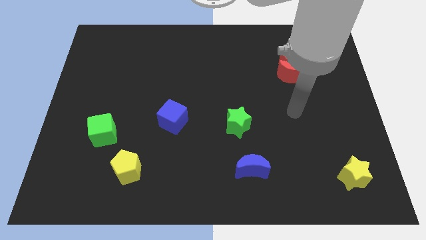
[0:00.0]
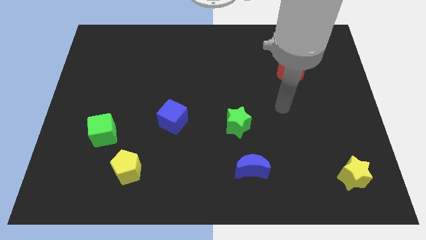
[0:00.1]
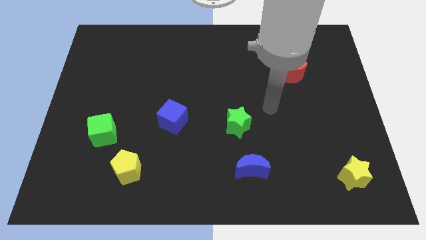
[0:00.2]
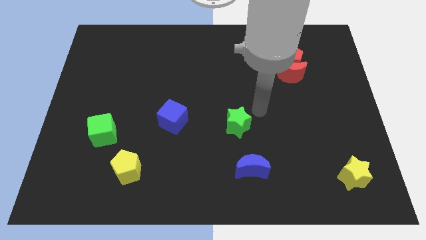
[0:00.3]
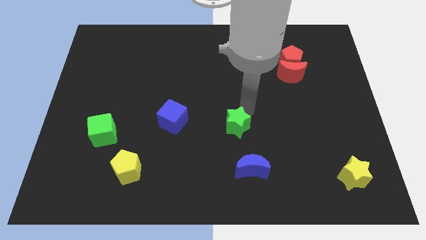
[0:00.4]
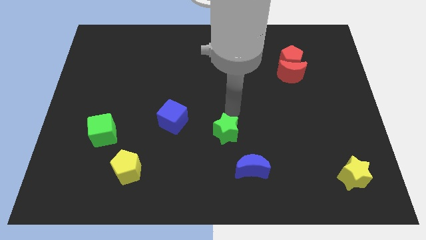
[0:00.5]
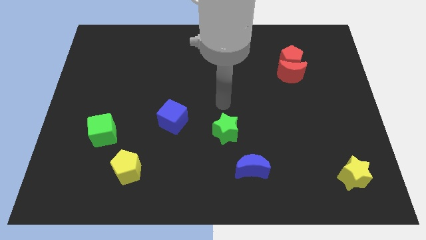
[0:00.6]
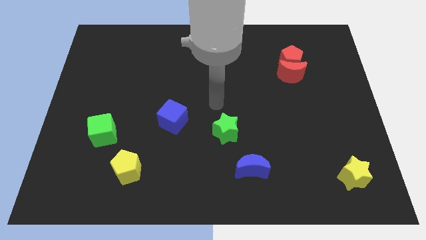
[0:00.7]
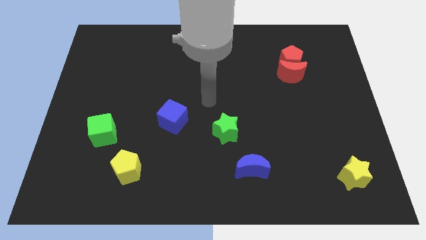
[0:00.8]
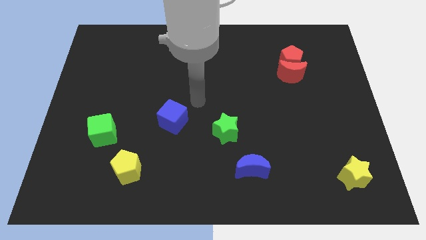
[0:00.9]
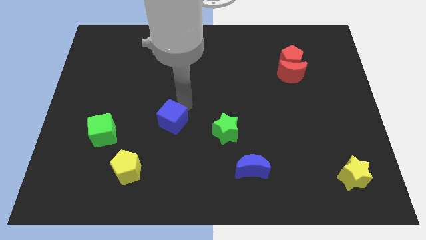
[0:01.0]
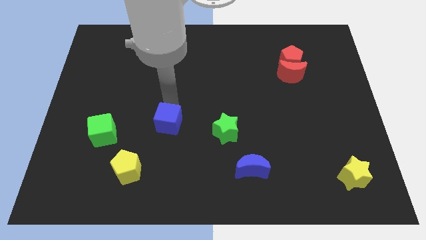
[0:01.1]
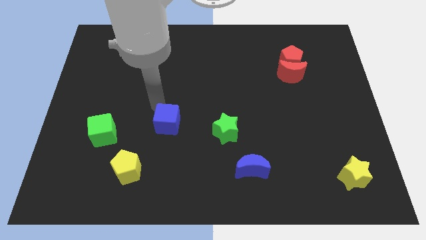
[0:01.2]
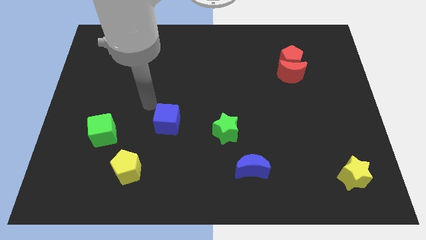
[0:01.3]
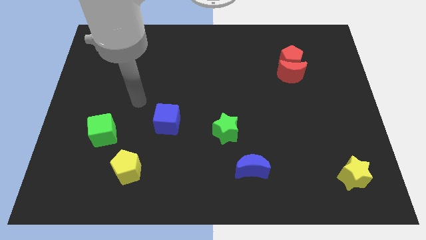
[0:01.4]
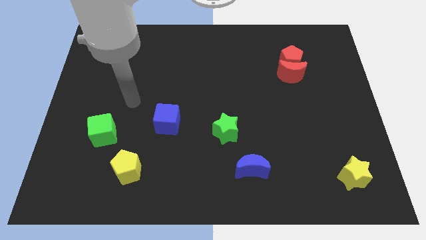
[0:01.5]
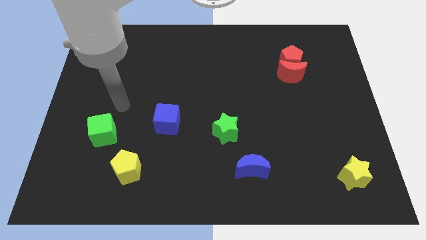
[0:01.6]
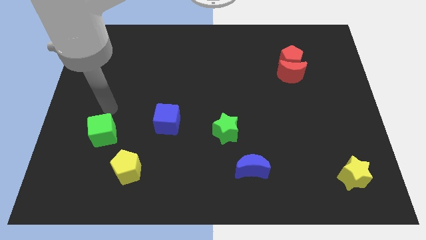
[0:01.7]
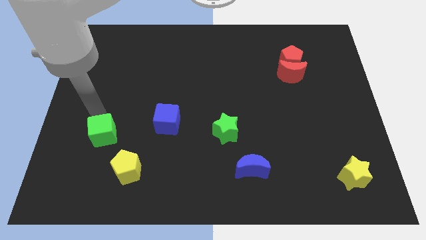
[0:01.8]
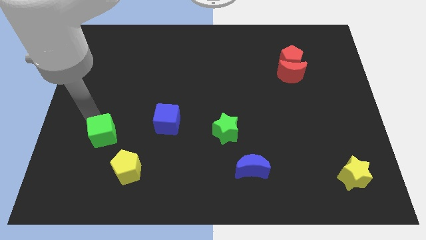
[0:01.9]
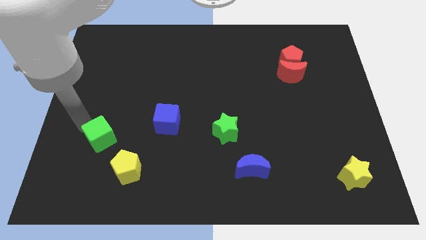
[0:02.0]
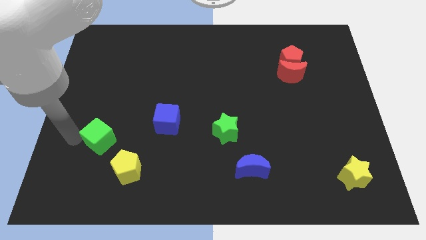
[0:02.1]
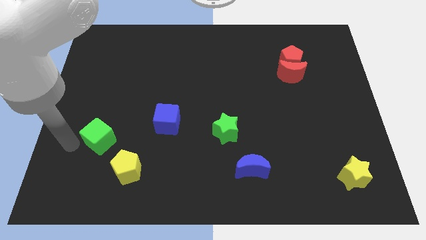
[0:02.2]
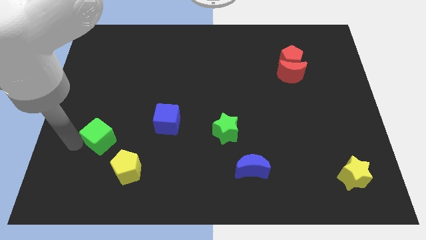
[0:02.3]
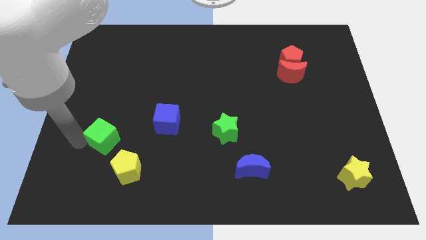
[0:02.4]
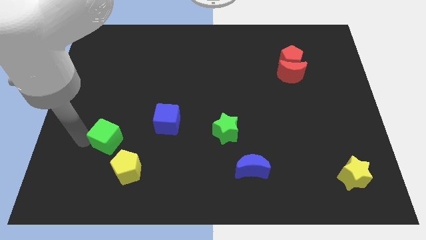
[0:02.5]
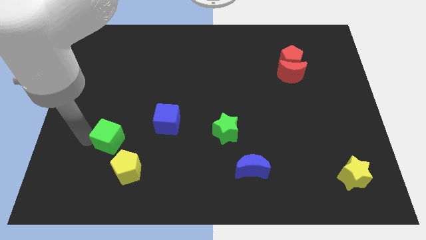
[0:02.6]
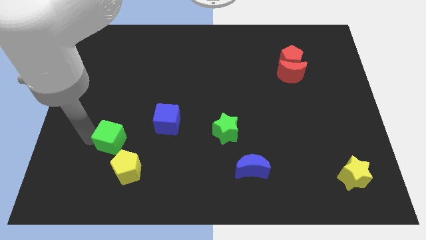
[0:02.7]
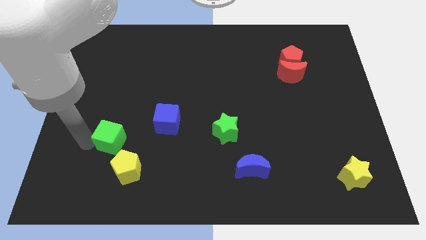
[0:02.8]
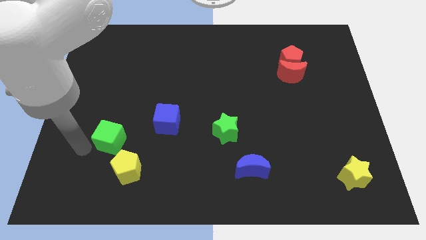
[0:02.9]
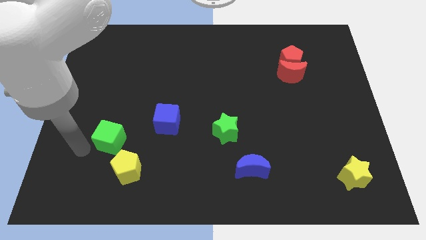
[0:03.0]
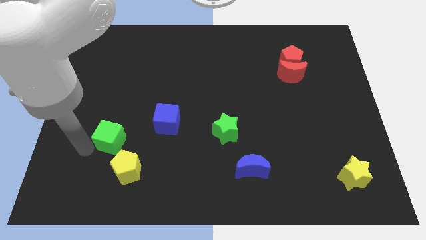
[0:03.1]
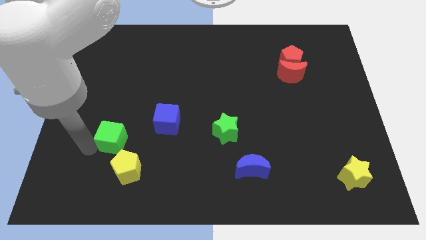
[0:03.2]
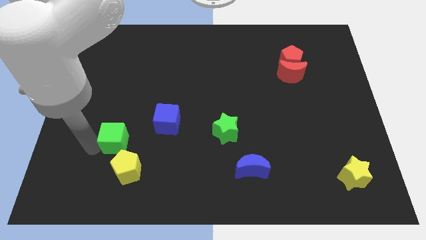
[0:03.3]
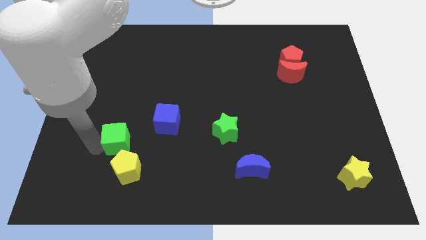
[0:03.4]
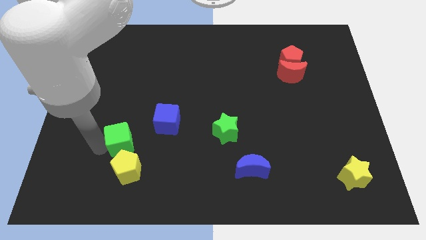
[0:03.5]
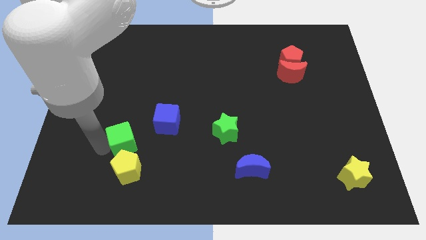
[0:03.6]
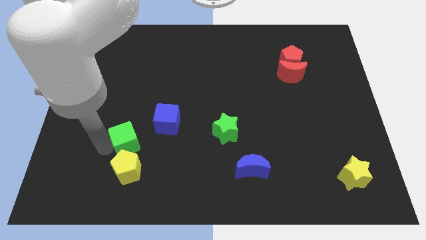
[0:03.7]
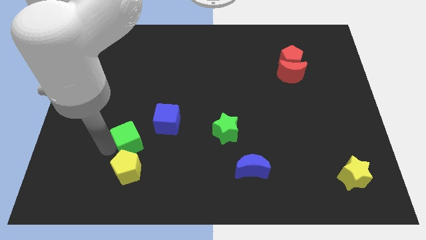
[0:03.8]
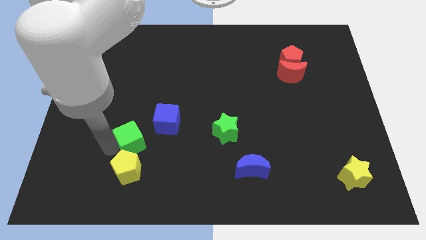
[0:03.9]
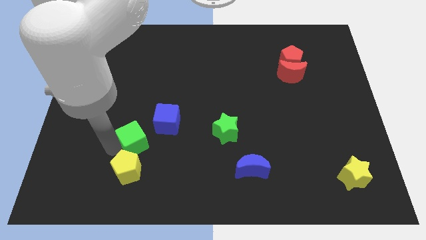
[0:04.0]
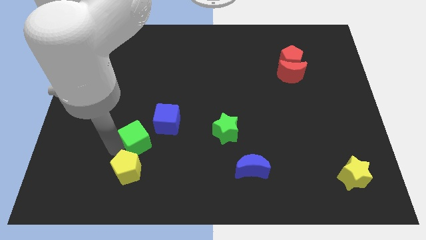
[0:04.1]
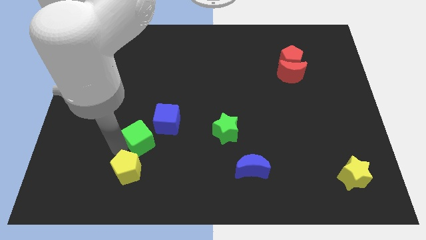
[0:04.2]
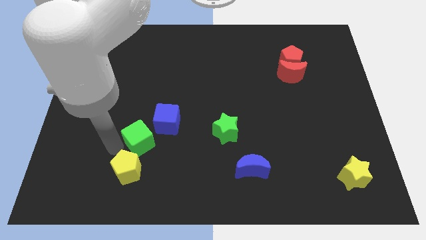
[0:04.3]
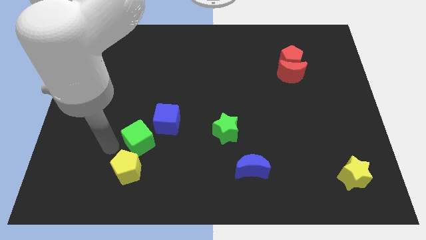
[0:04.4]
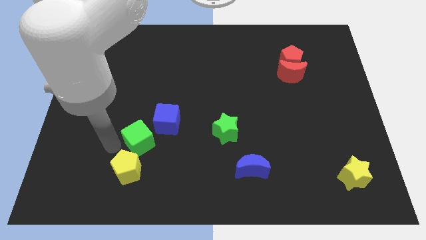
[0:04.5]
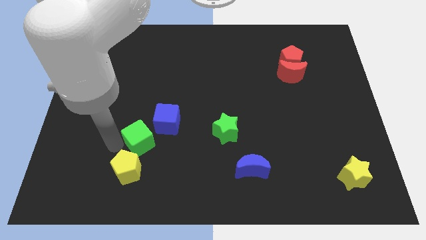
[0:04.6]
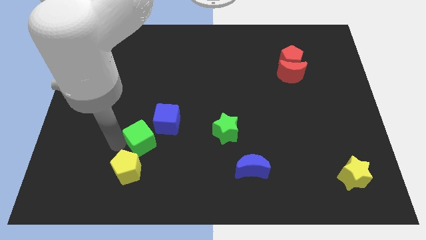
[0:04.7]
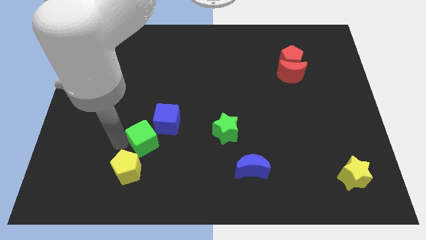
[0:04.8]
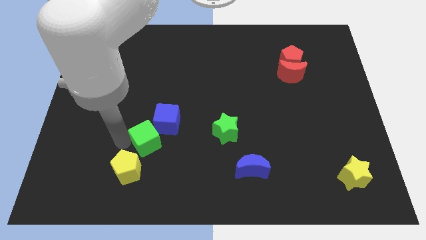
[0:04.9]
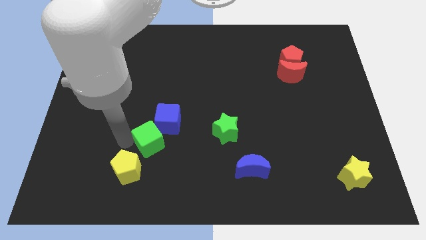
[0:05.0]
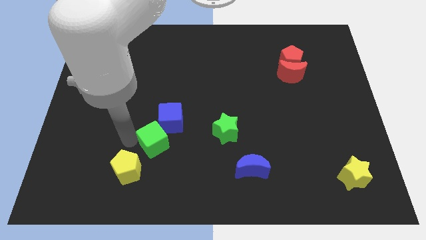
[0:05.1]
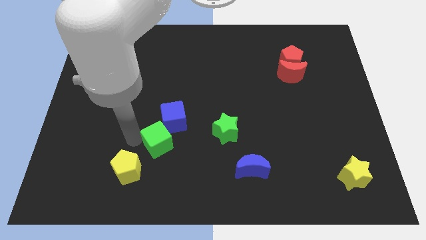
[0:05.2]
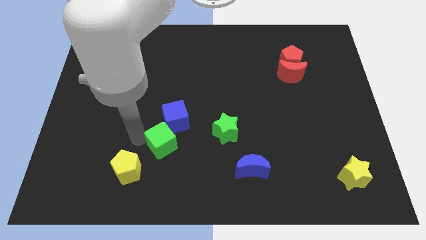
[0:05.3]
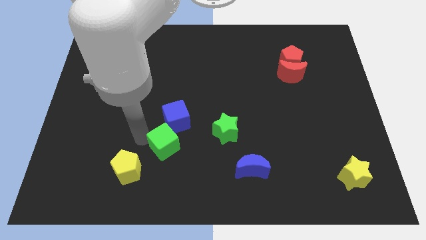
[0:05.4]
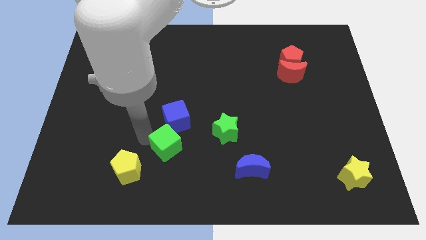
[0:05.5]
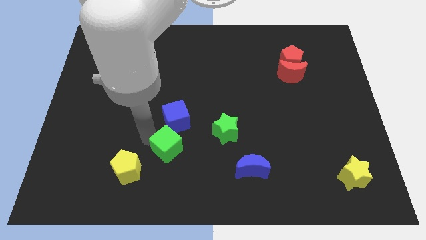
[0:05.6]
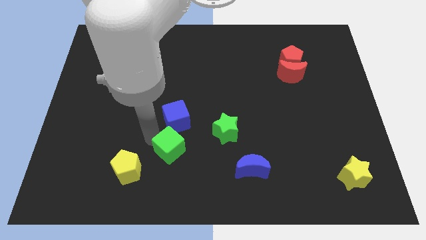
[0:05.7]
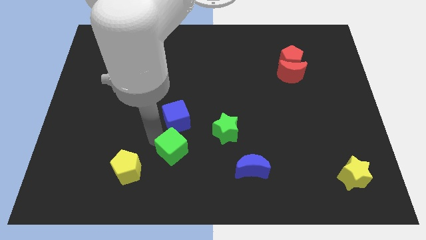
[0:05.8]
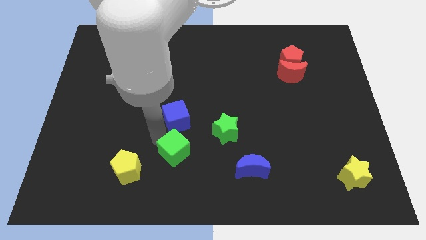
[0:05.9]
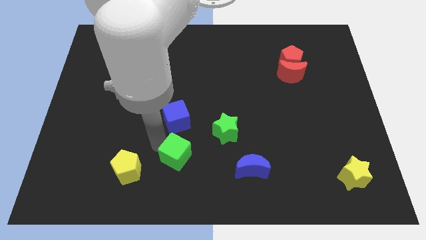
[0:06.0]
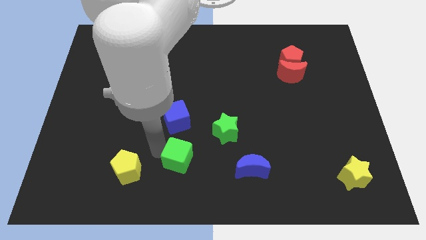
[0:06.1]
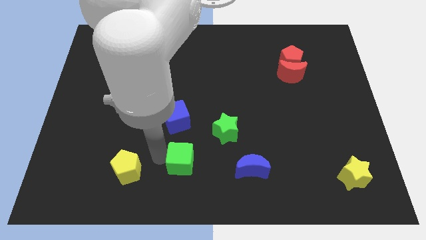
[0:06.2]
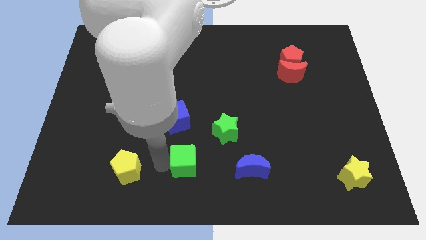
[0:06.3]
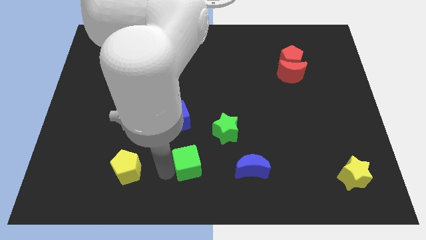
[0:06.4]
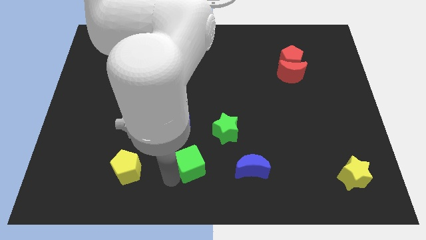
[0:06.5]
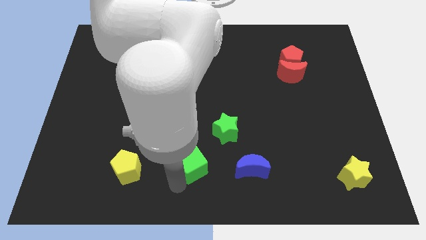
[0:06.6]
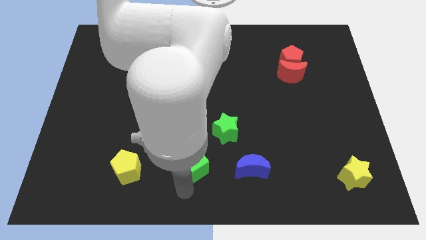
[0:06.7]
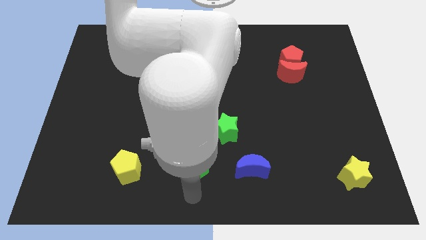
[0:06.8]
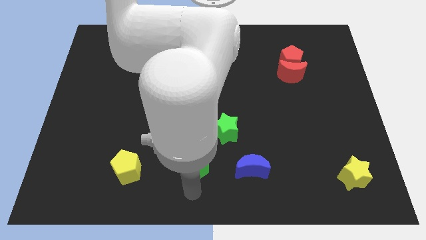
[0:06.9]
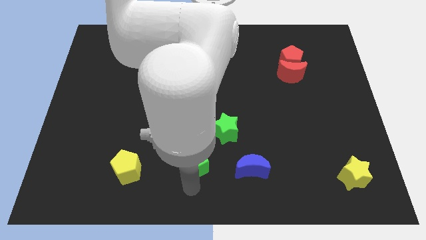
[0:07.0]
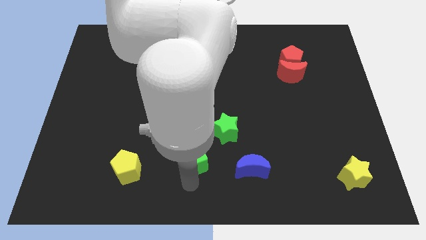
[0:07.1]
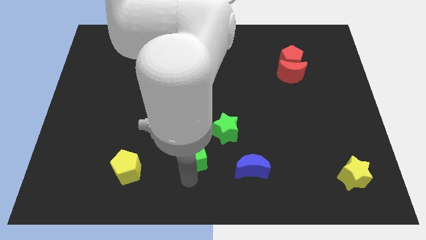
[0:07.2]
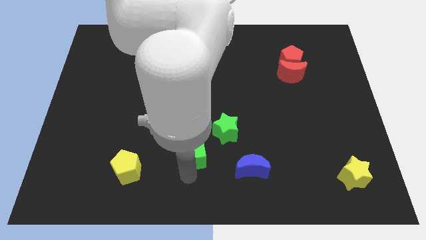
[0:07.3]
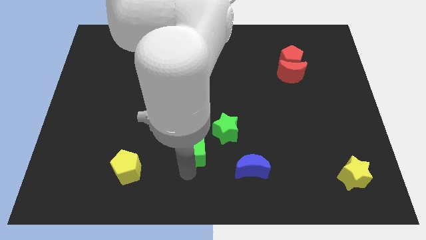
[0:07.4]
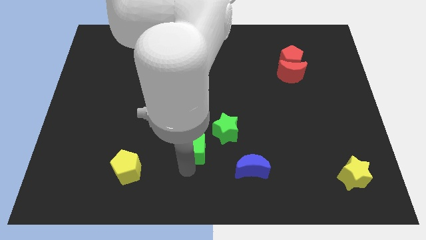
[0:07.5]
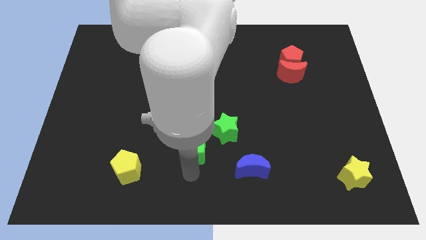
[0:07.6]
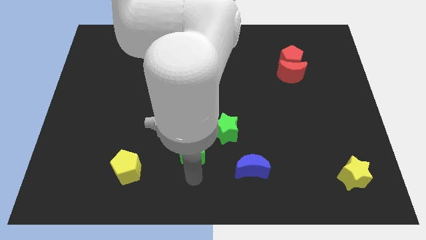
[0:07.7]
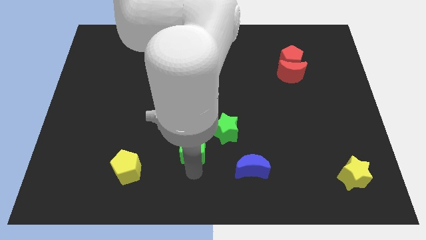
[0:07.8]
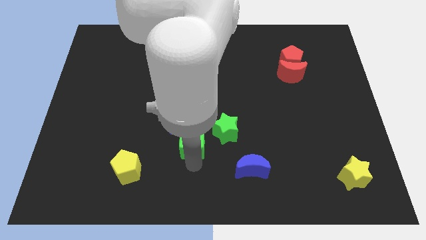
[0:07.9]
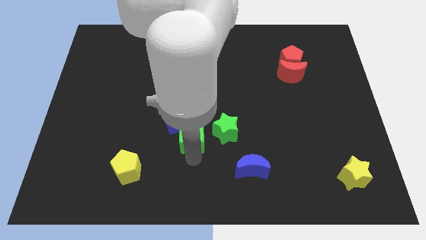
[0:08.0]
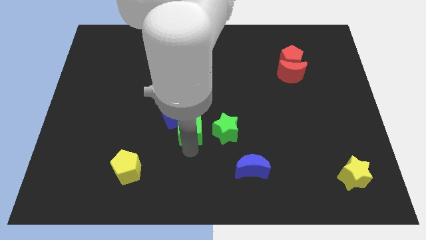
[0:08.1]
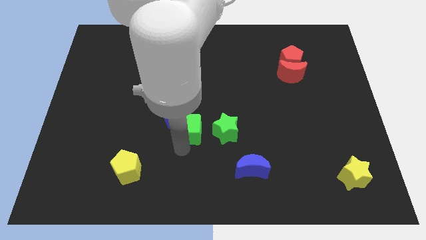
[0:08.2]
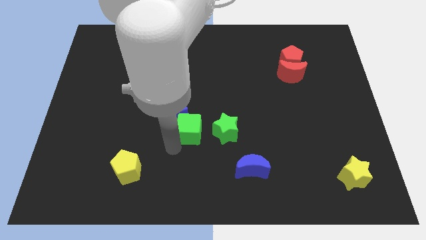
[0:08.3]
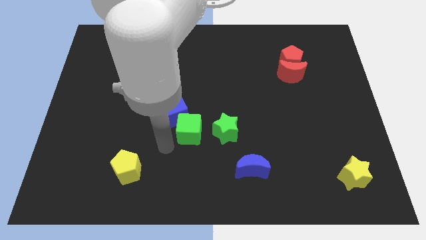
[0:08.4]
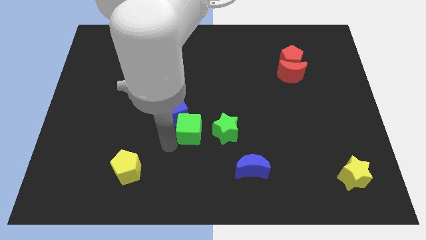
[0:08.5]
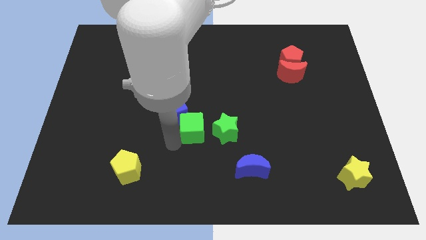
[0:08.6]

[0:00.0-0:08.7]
move the green cube to the right of the blue cube
